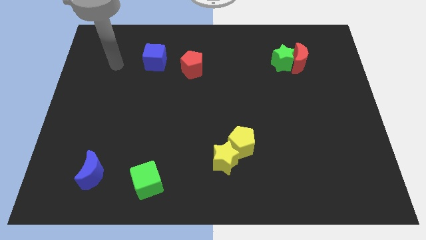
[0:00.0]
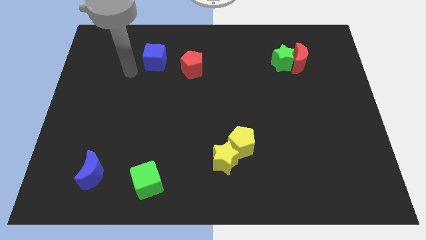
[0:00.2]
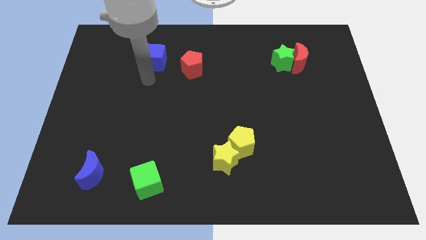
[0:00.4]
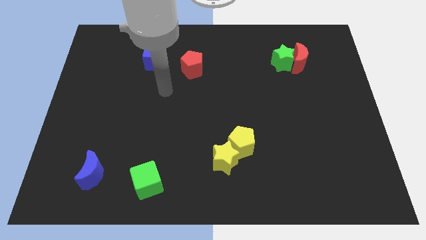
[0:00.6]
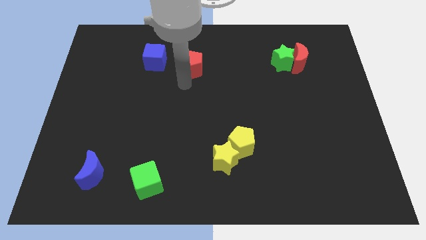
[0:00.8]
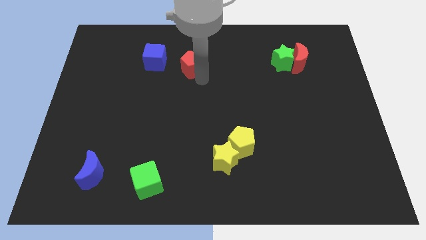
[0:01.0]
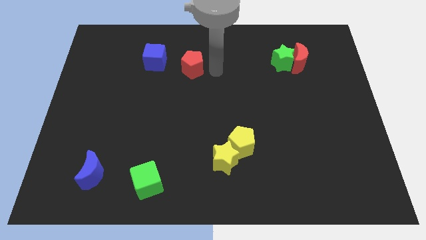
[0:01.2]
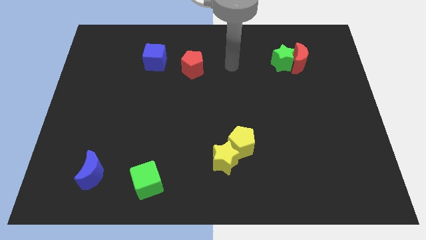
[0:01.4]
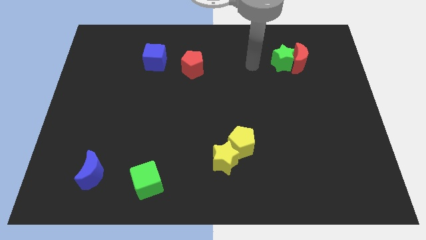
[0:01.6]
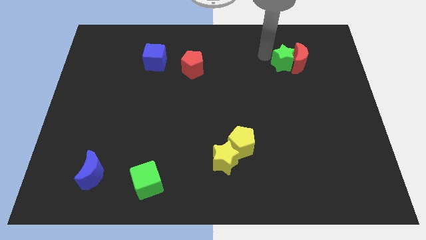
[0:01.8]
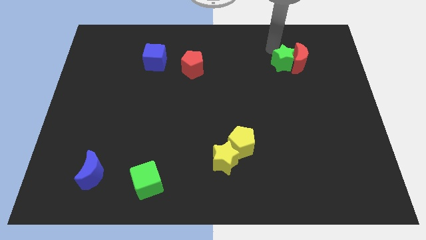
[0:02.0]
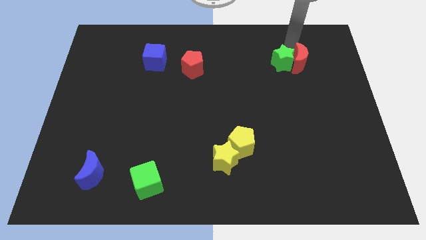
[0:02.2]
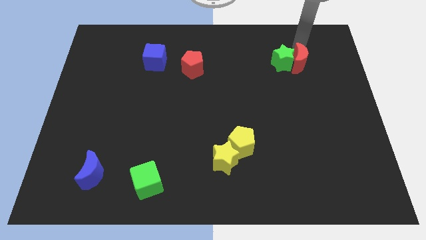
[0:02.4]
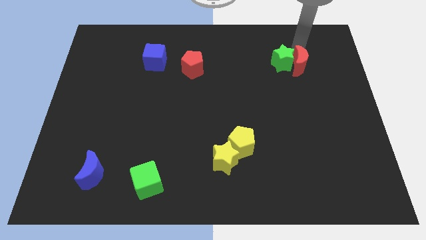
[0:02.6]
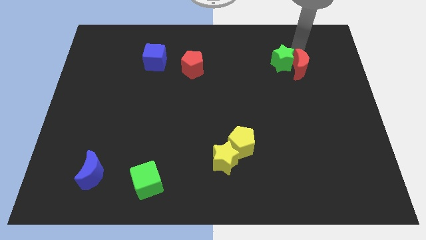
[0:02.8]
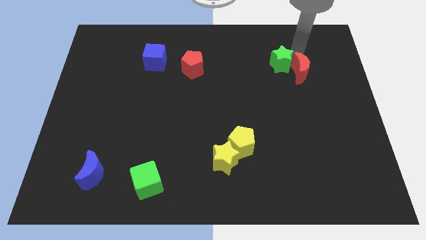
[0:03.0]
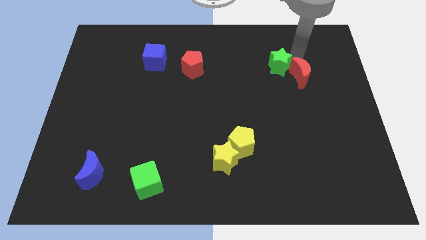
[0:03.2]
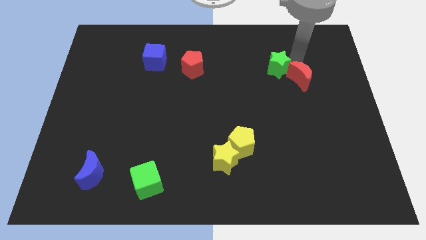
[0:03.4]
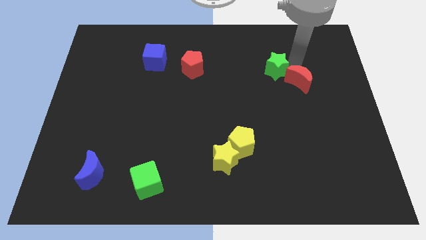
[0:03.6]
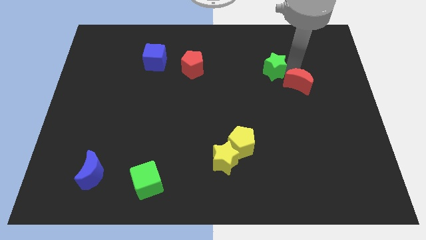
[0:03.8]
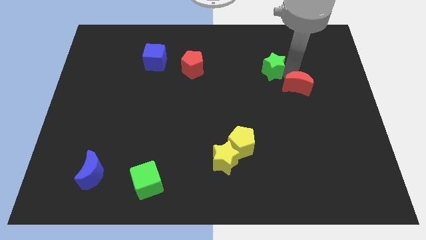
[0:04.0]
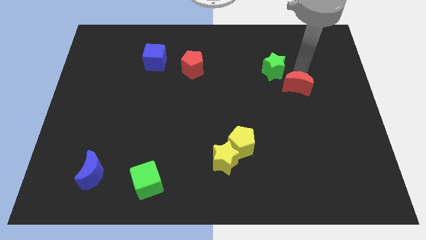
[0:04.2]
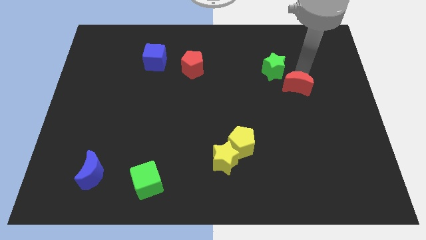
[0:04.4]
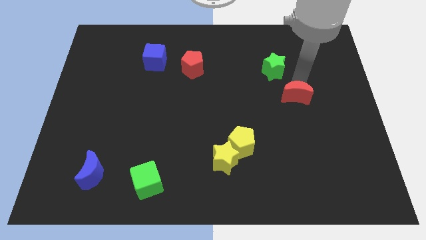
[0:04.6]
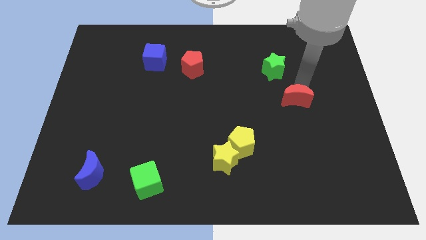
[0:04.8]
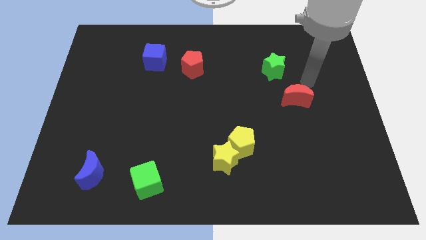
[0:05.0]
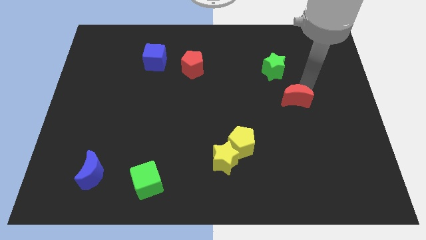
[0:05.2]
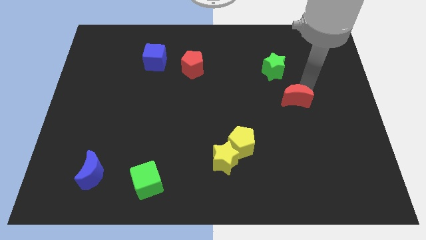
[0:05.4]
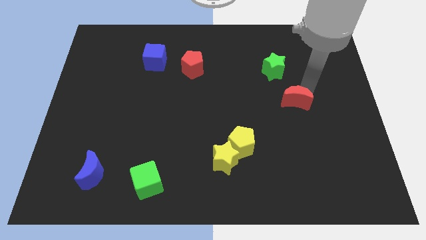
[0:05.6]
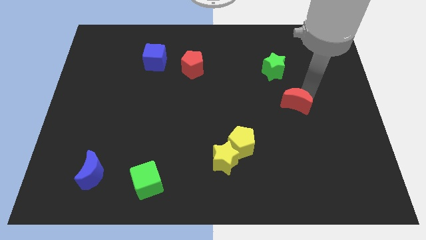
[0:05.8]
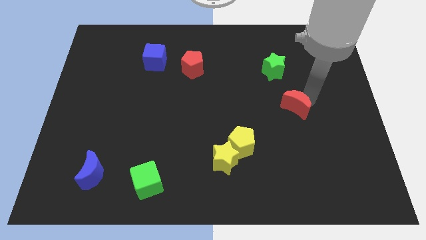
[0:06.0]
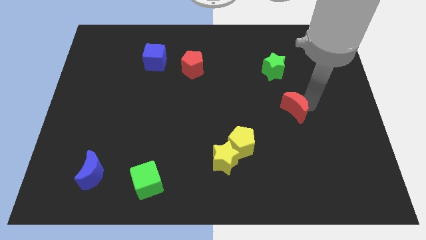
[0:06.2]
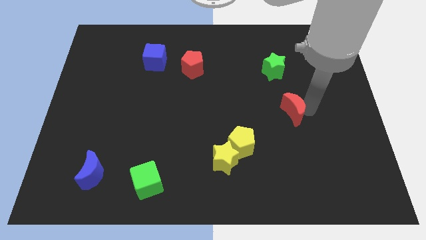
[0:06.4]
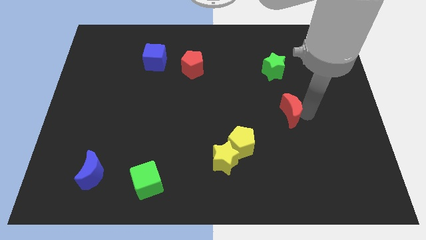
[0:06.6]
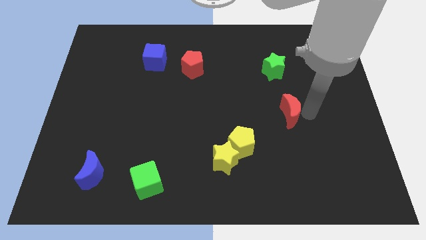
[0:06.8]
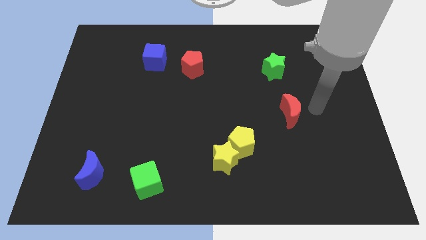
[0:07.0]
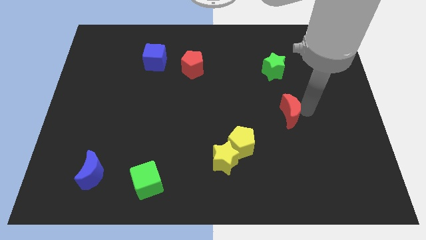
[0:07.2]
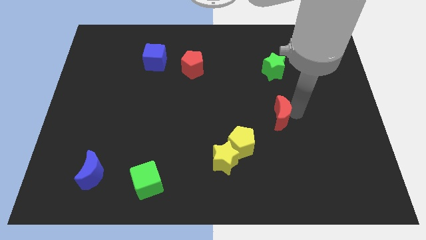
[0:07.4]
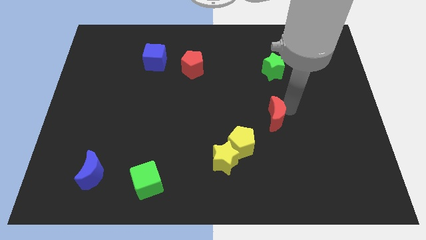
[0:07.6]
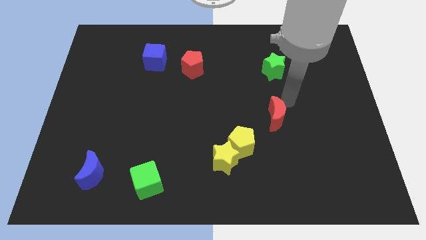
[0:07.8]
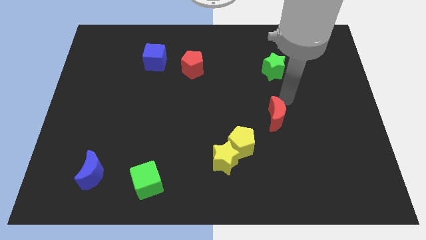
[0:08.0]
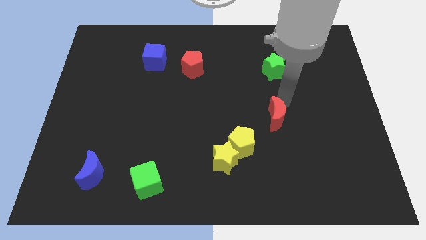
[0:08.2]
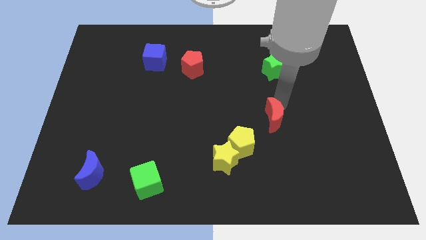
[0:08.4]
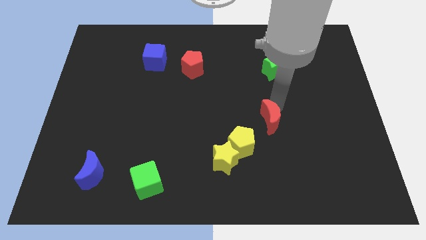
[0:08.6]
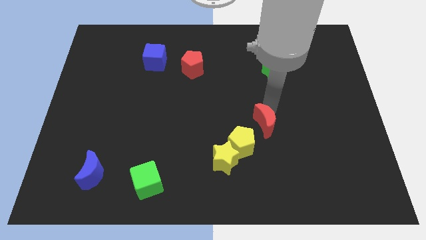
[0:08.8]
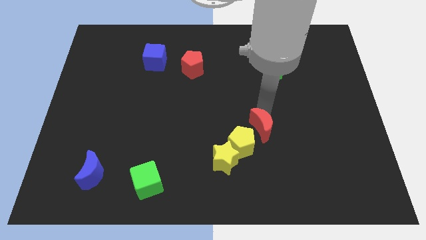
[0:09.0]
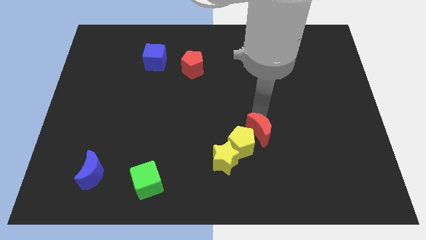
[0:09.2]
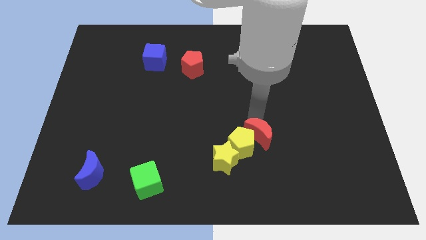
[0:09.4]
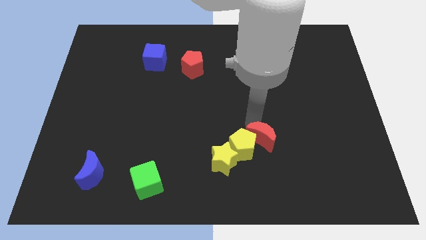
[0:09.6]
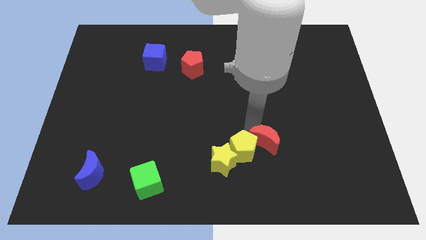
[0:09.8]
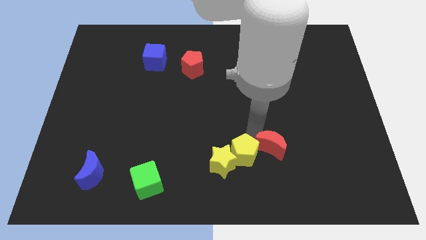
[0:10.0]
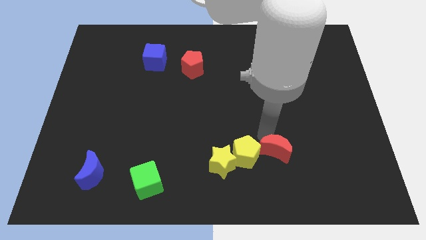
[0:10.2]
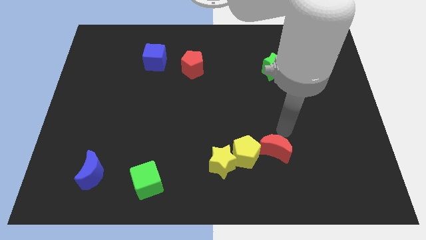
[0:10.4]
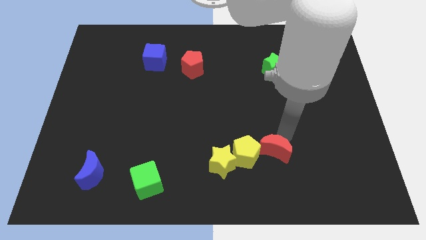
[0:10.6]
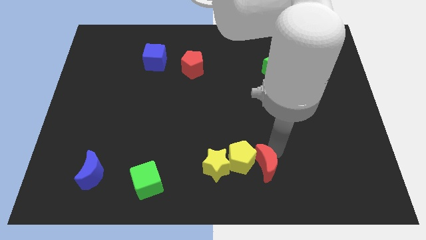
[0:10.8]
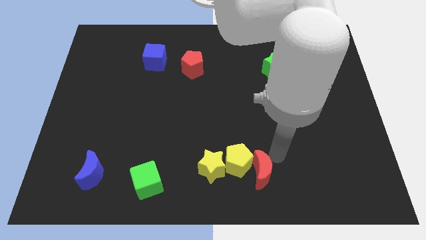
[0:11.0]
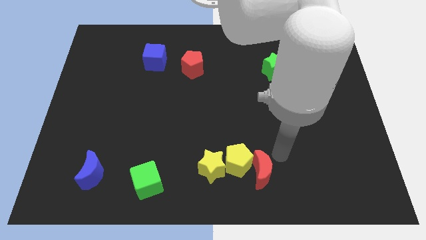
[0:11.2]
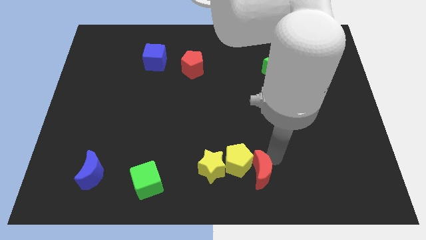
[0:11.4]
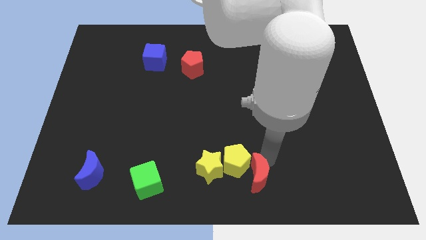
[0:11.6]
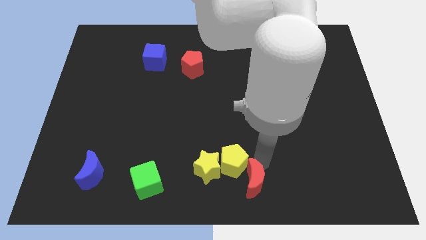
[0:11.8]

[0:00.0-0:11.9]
move the red moon diagonally down and to the right of the yellow star

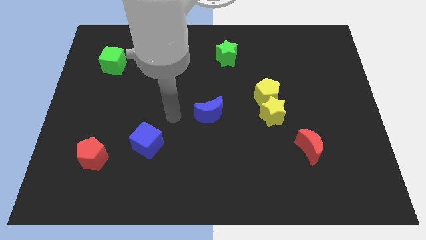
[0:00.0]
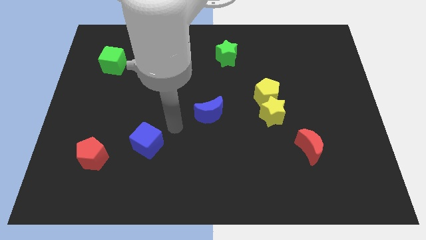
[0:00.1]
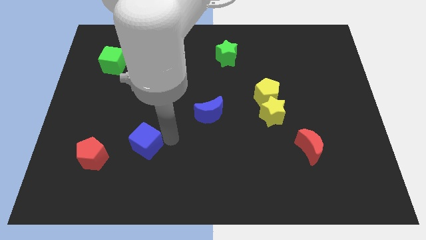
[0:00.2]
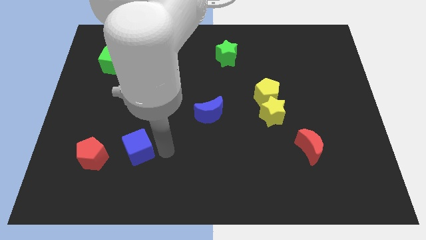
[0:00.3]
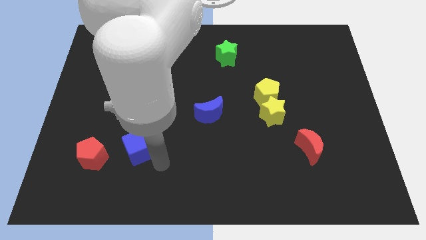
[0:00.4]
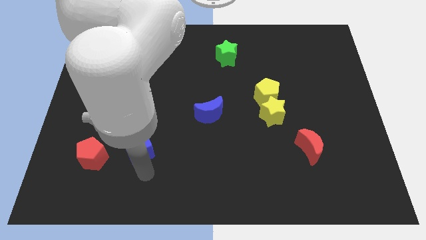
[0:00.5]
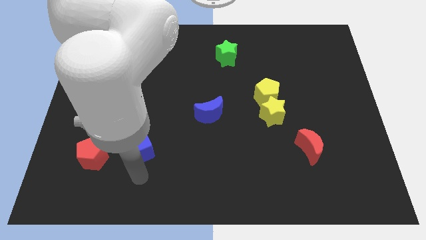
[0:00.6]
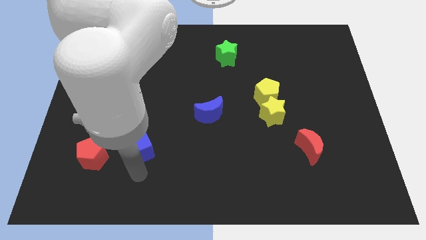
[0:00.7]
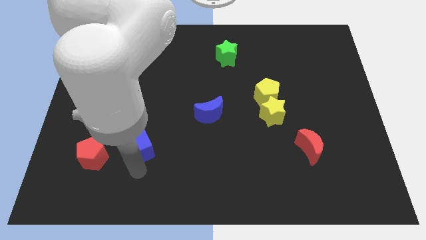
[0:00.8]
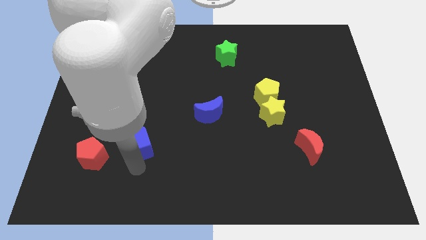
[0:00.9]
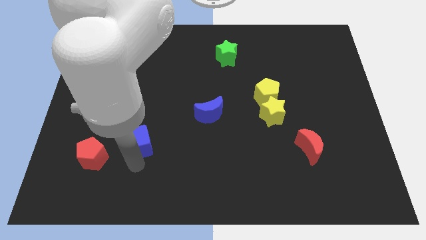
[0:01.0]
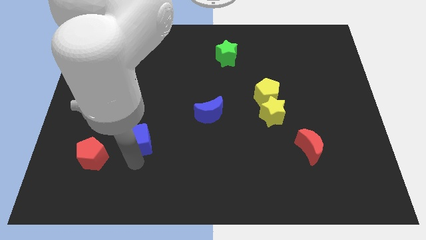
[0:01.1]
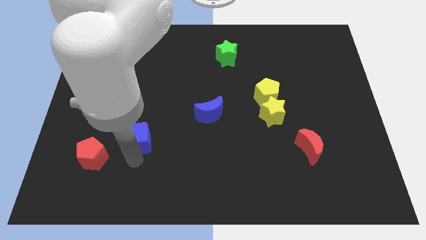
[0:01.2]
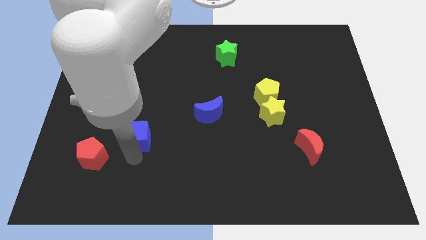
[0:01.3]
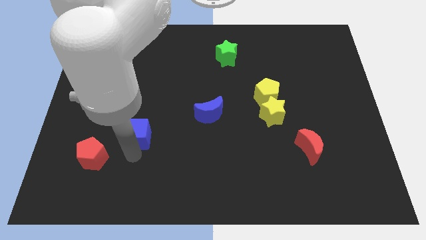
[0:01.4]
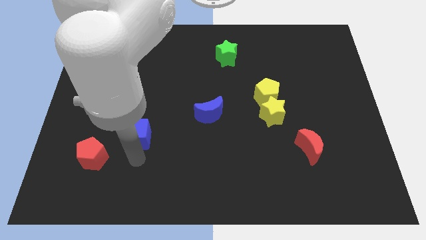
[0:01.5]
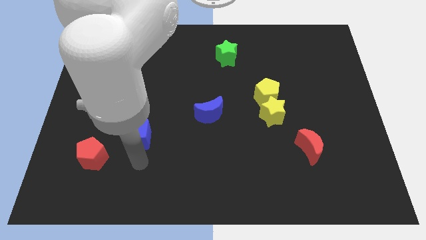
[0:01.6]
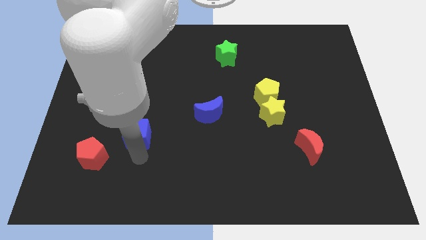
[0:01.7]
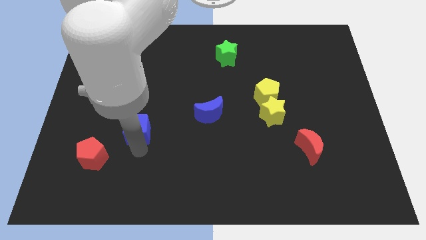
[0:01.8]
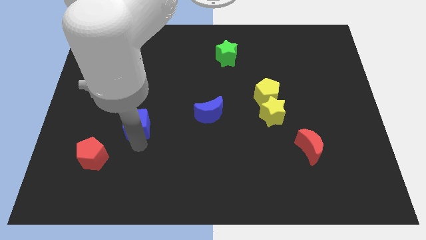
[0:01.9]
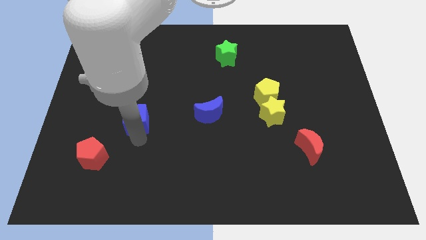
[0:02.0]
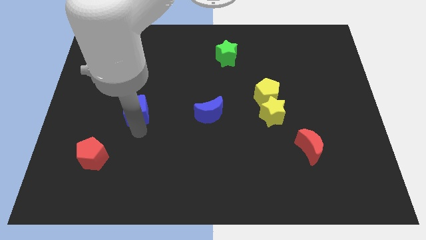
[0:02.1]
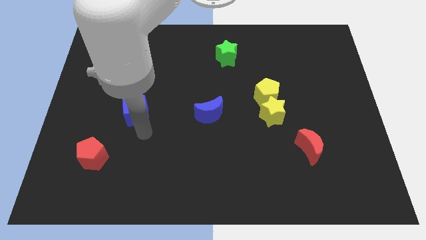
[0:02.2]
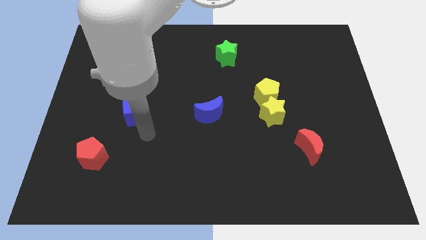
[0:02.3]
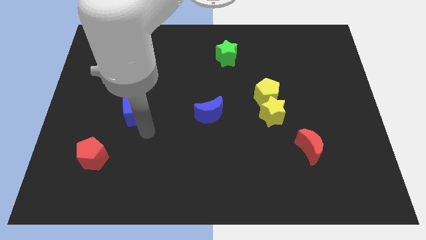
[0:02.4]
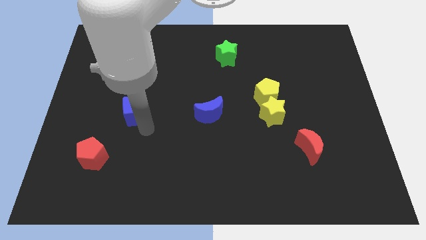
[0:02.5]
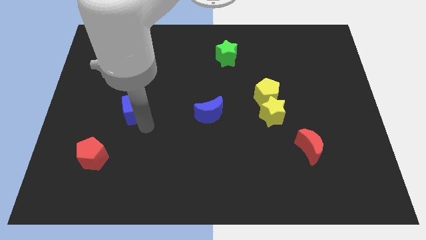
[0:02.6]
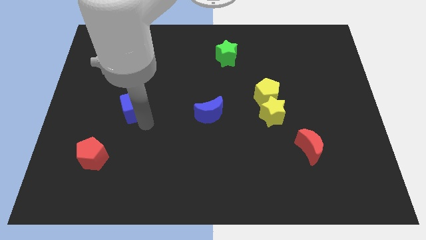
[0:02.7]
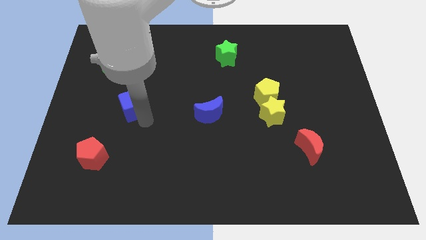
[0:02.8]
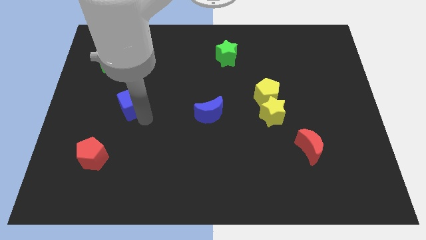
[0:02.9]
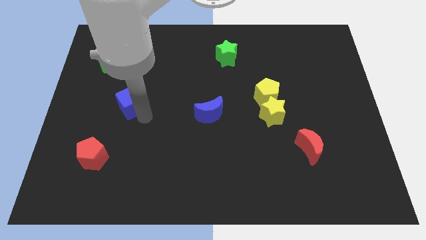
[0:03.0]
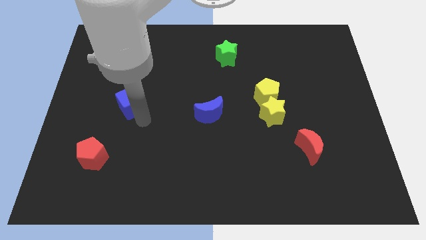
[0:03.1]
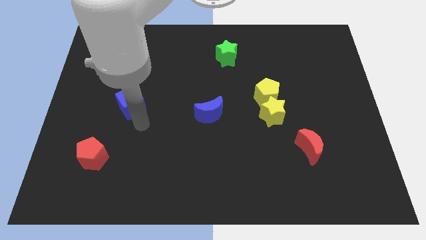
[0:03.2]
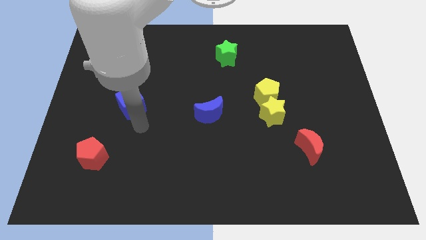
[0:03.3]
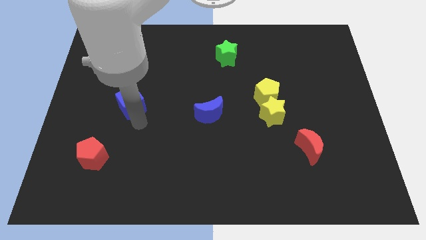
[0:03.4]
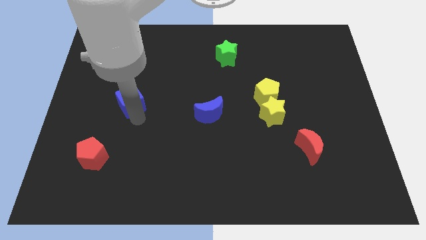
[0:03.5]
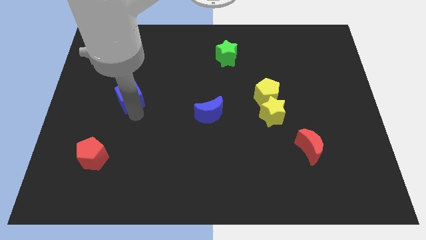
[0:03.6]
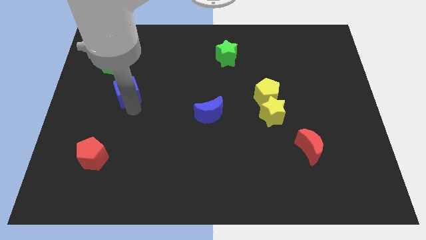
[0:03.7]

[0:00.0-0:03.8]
move the blue cube to the bottom right side of the green cube
